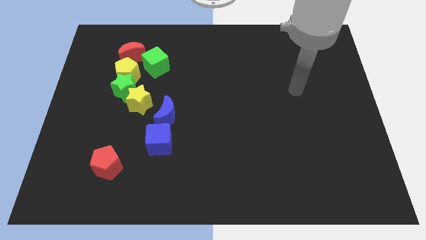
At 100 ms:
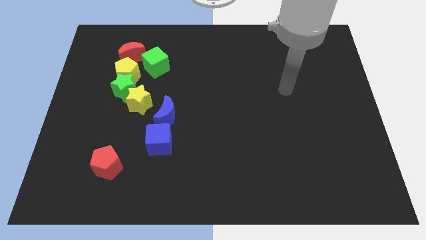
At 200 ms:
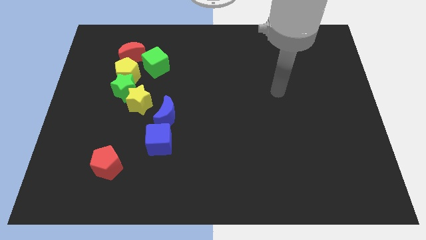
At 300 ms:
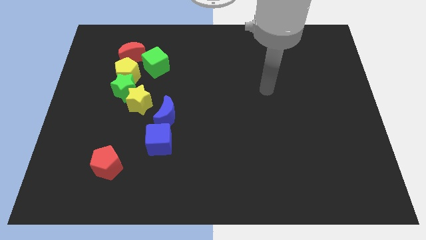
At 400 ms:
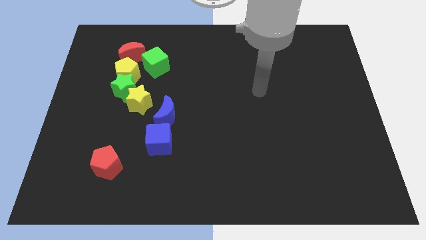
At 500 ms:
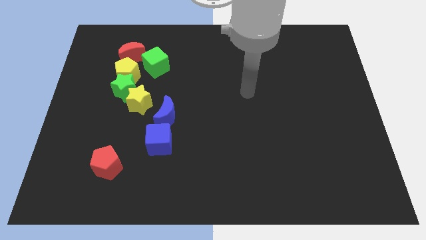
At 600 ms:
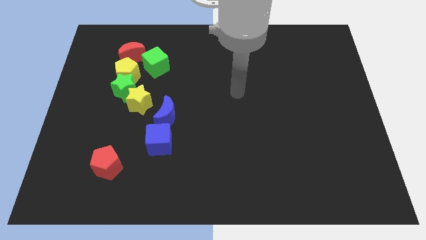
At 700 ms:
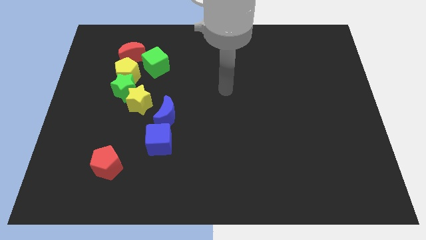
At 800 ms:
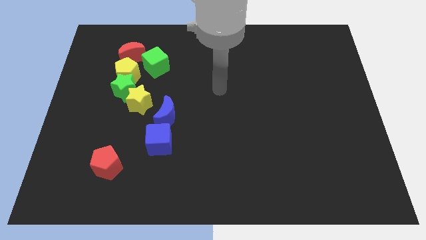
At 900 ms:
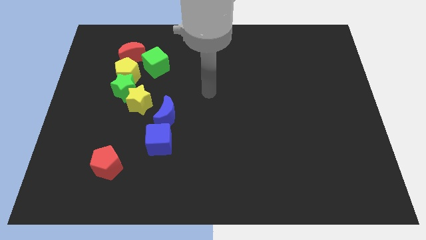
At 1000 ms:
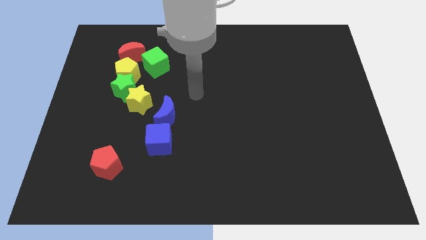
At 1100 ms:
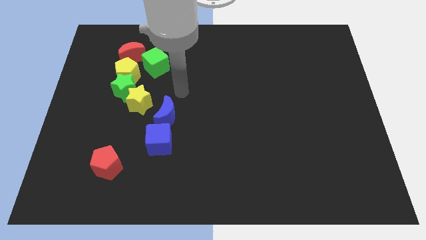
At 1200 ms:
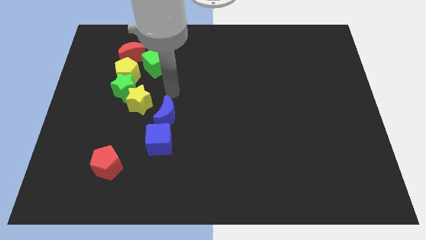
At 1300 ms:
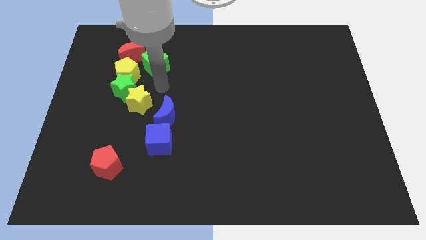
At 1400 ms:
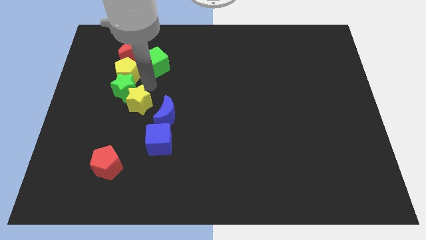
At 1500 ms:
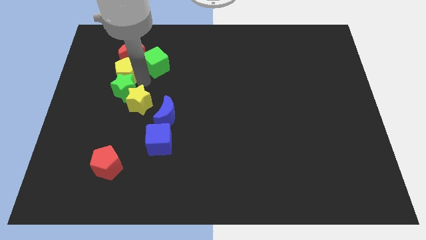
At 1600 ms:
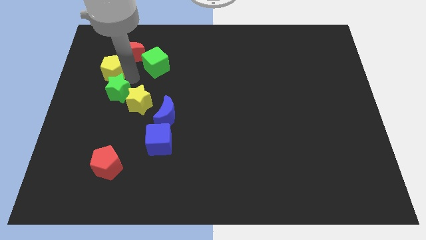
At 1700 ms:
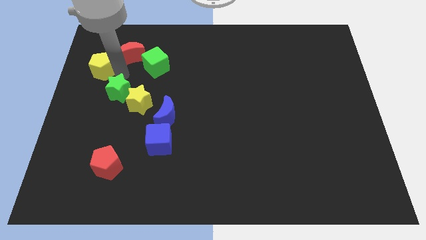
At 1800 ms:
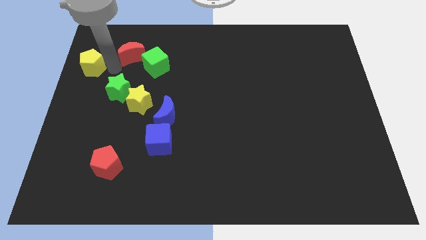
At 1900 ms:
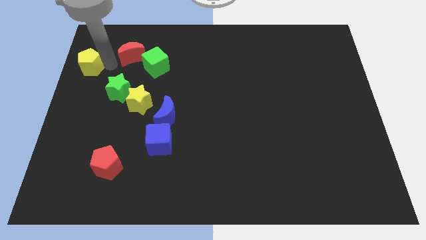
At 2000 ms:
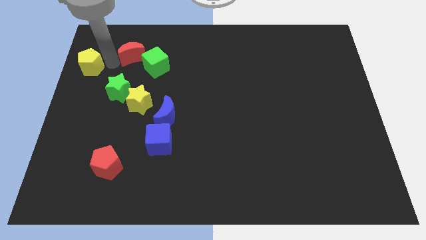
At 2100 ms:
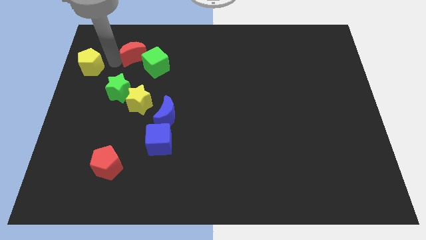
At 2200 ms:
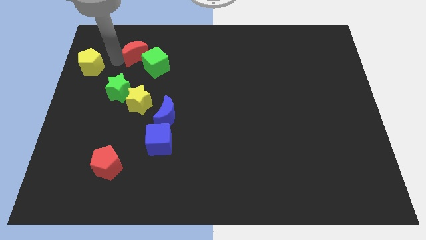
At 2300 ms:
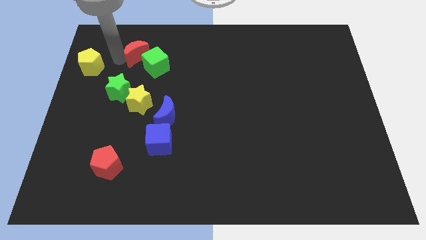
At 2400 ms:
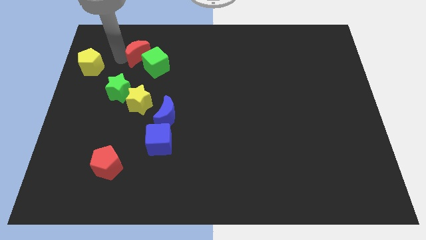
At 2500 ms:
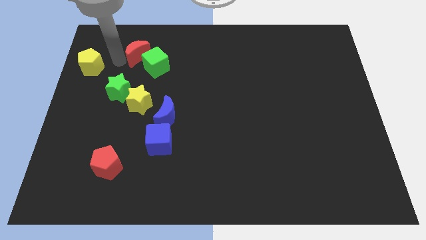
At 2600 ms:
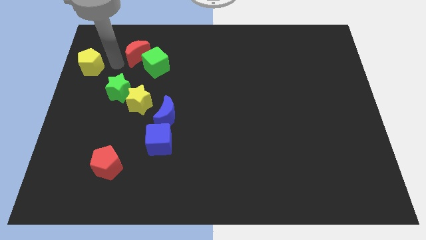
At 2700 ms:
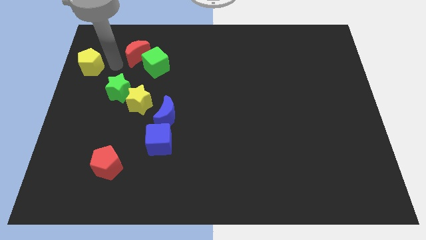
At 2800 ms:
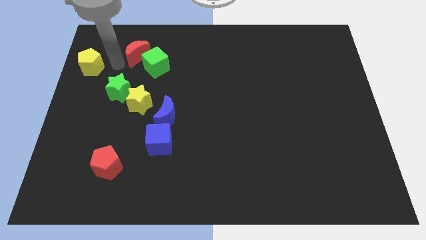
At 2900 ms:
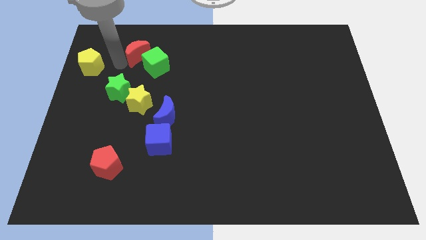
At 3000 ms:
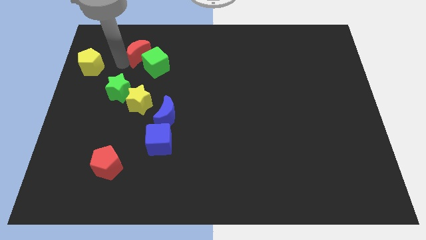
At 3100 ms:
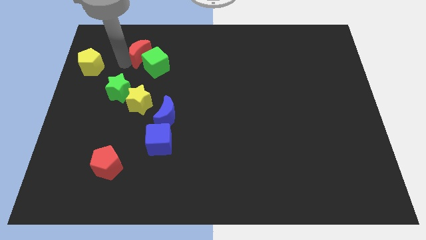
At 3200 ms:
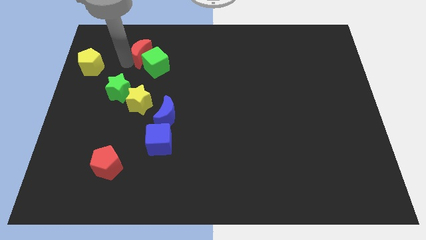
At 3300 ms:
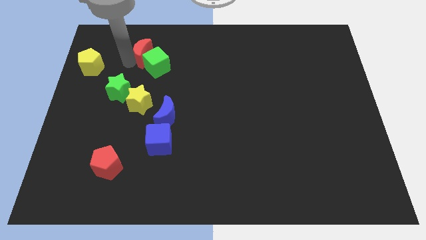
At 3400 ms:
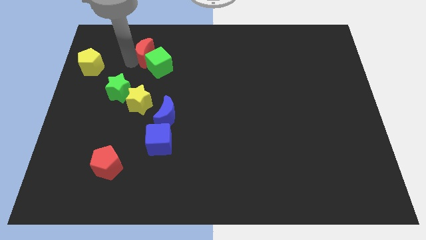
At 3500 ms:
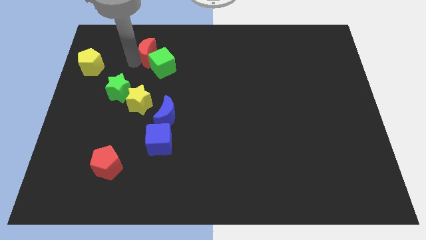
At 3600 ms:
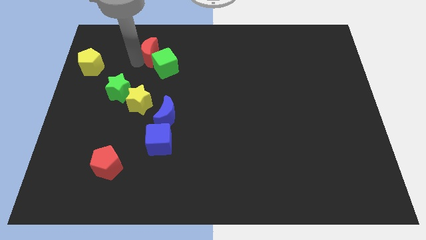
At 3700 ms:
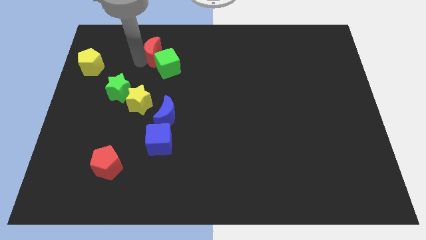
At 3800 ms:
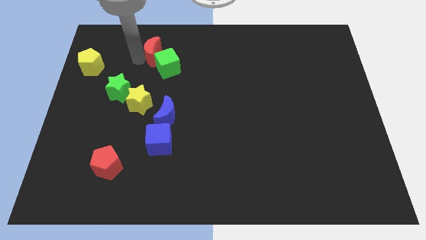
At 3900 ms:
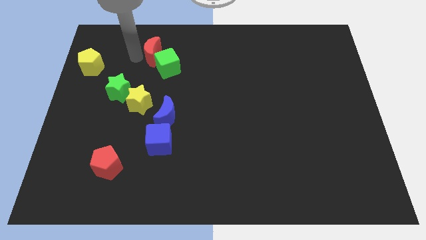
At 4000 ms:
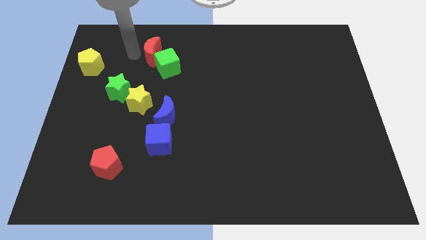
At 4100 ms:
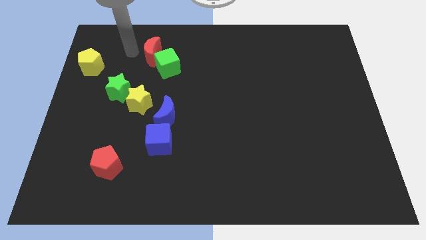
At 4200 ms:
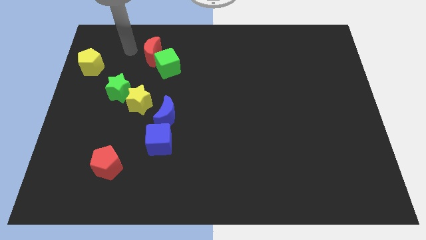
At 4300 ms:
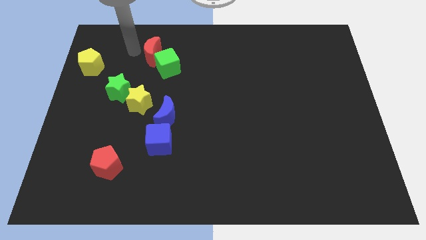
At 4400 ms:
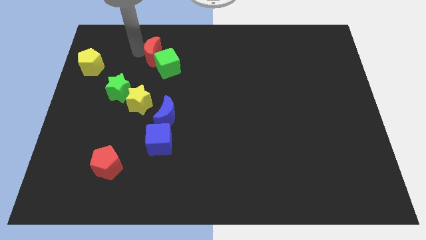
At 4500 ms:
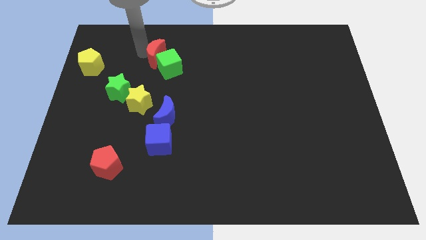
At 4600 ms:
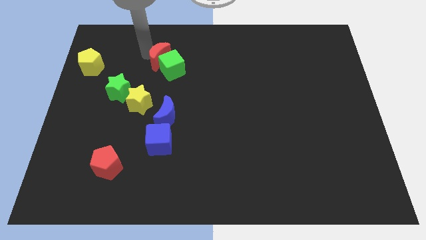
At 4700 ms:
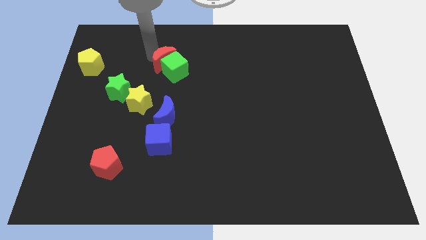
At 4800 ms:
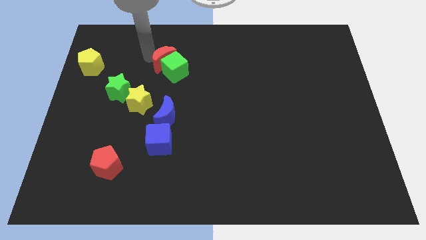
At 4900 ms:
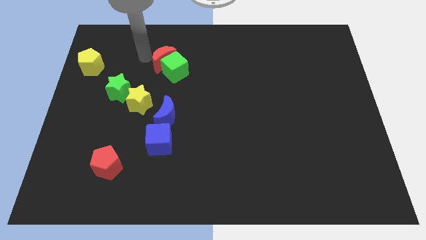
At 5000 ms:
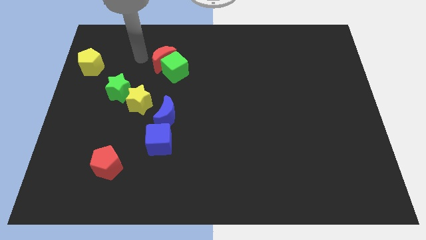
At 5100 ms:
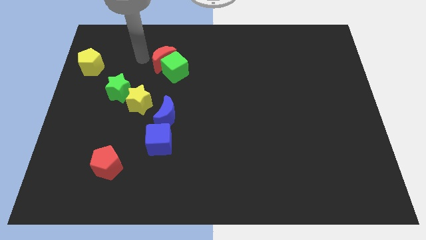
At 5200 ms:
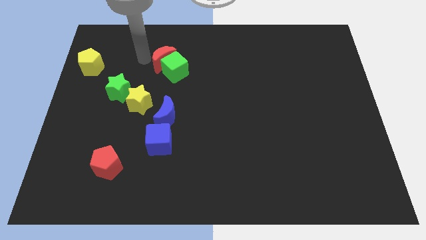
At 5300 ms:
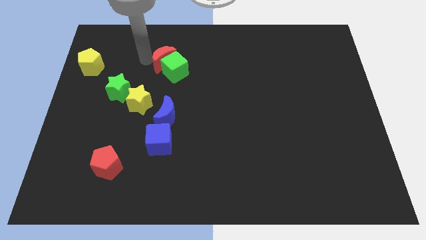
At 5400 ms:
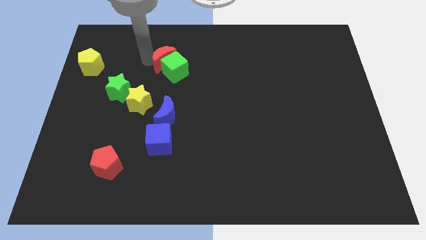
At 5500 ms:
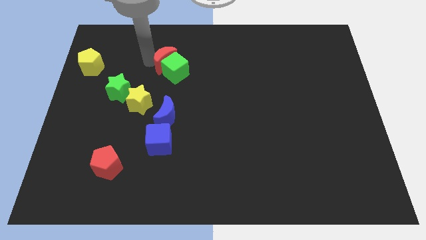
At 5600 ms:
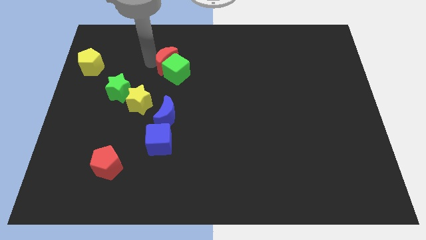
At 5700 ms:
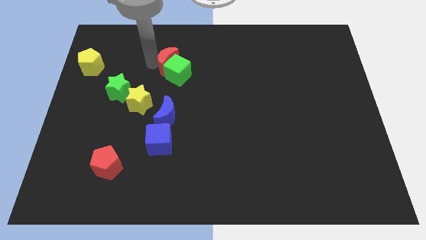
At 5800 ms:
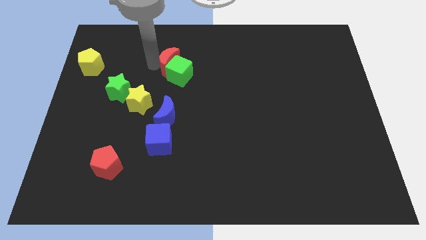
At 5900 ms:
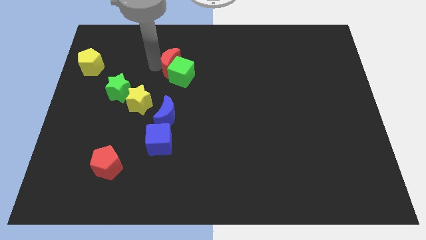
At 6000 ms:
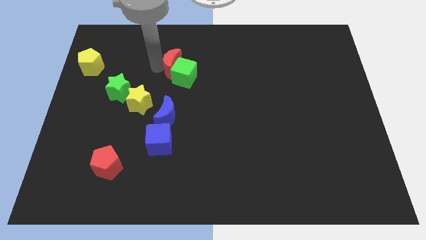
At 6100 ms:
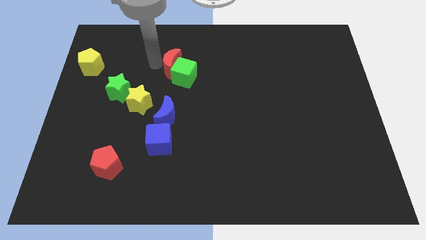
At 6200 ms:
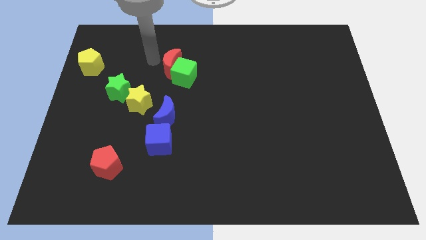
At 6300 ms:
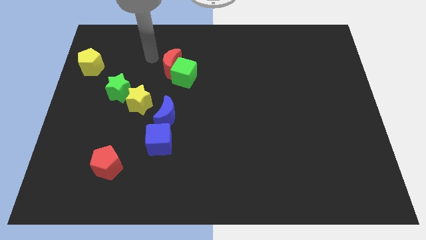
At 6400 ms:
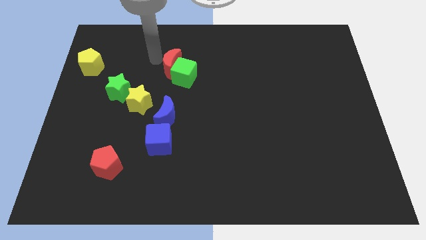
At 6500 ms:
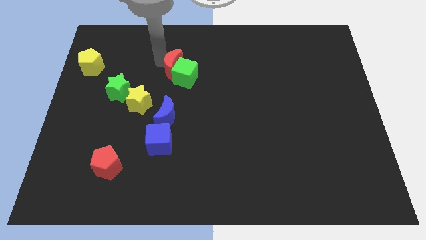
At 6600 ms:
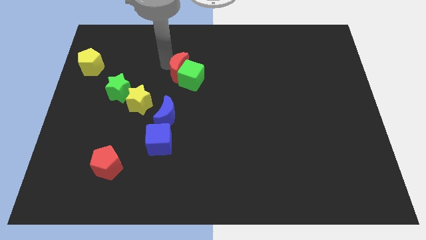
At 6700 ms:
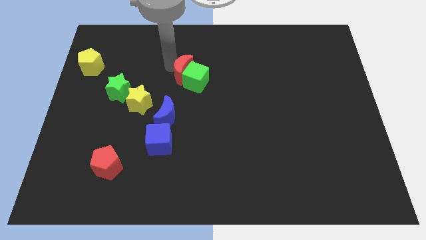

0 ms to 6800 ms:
slide the red moon to the center of the board

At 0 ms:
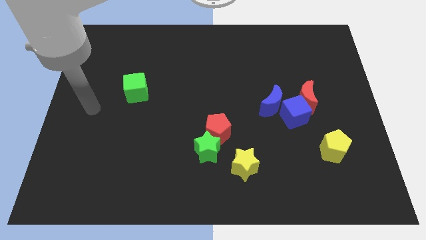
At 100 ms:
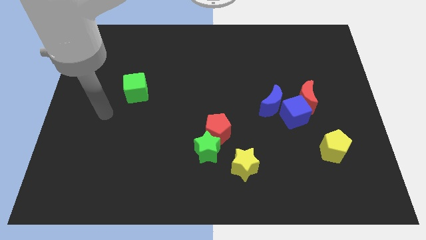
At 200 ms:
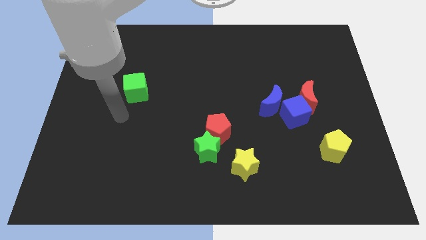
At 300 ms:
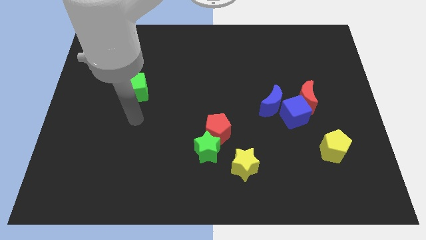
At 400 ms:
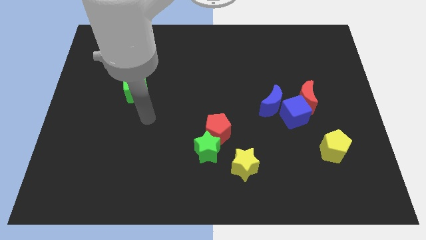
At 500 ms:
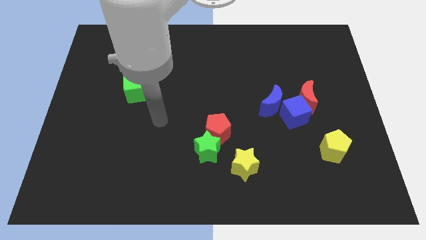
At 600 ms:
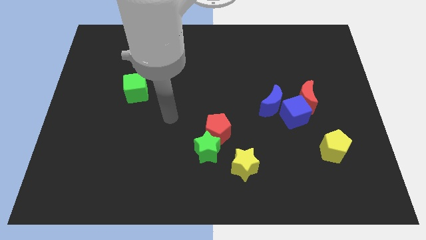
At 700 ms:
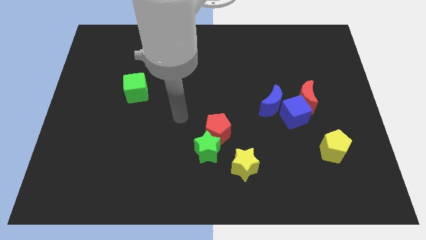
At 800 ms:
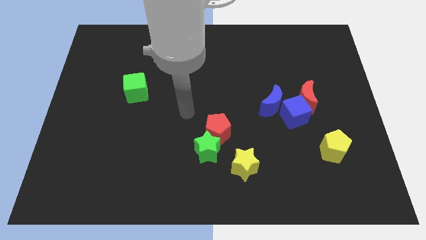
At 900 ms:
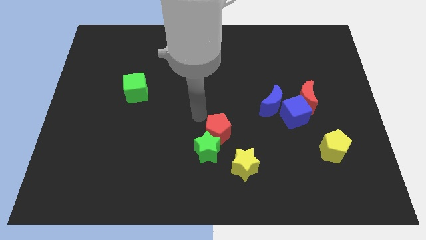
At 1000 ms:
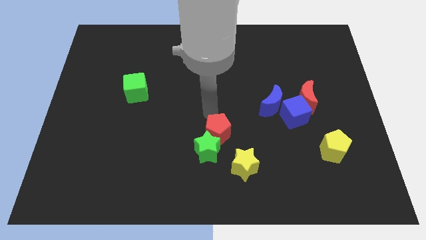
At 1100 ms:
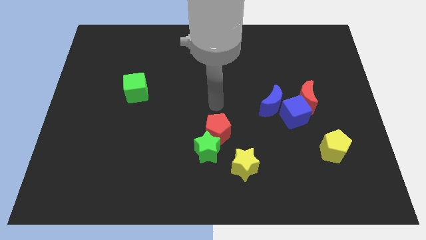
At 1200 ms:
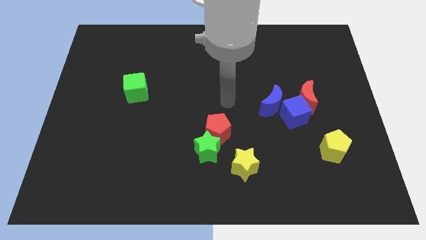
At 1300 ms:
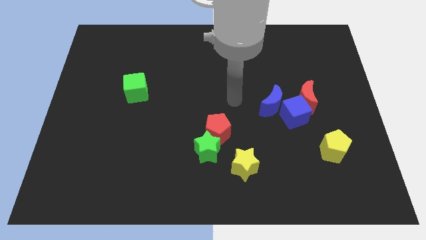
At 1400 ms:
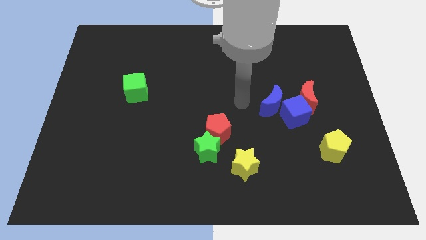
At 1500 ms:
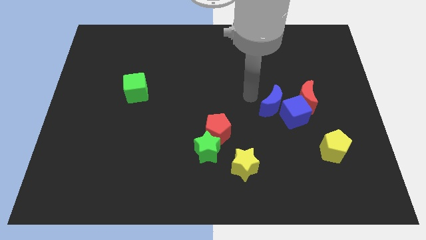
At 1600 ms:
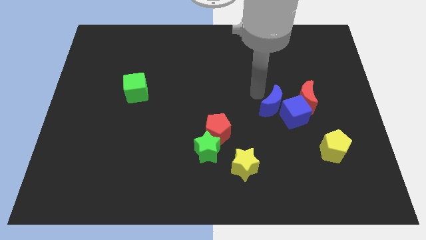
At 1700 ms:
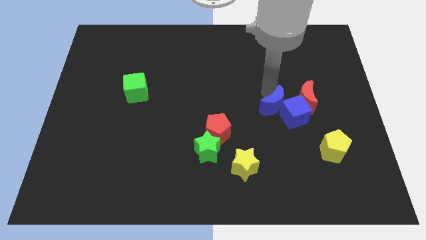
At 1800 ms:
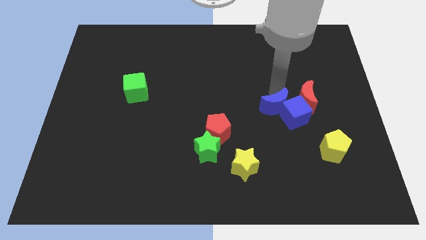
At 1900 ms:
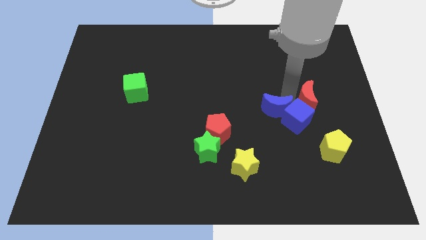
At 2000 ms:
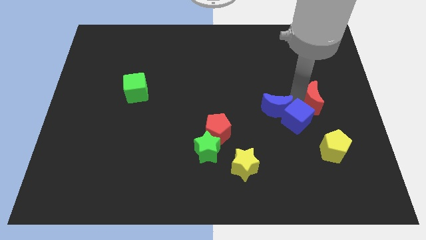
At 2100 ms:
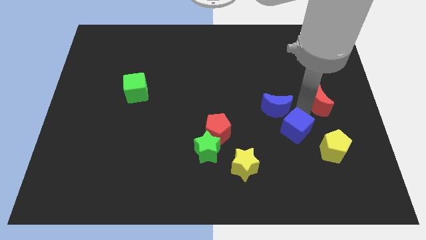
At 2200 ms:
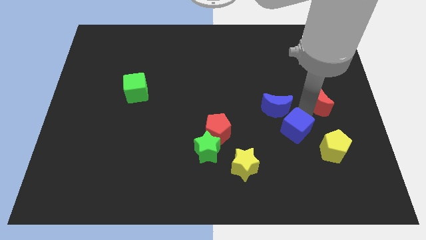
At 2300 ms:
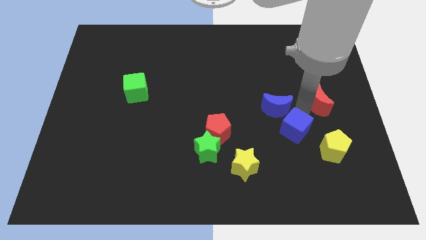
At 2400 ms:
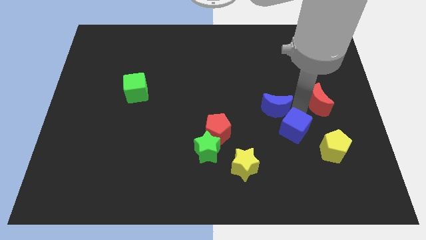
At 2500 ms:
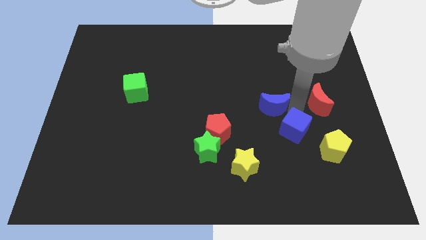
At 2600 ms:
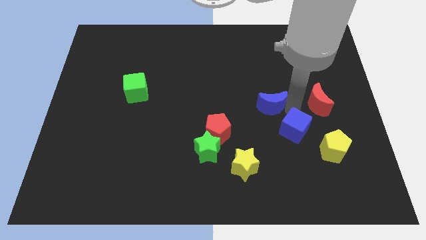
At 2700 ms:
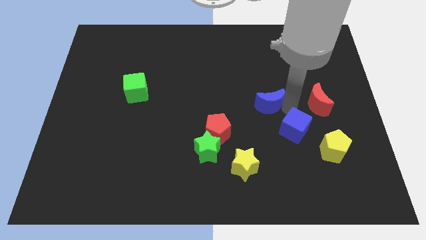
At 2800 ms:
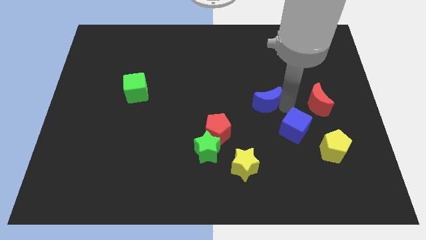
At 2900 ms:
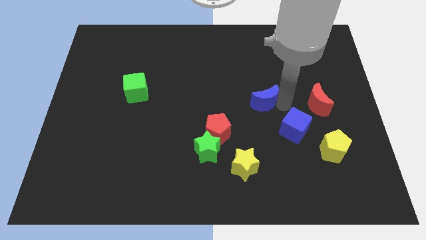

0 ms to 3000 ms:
move the blue moon to the middle of the board
